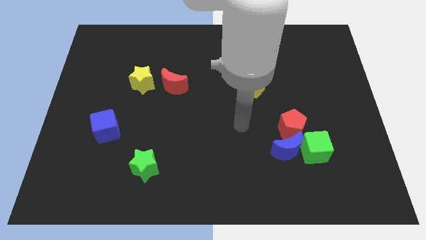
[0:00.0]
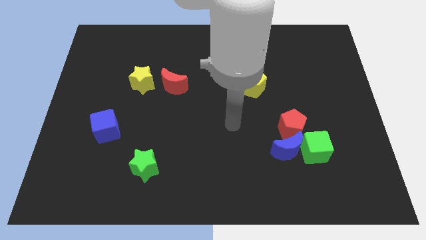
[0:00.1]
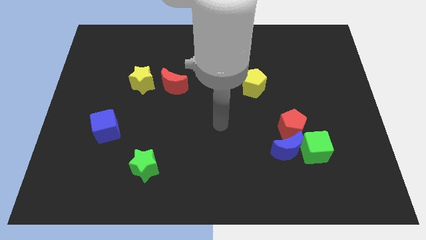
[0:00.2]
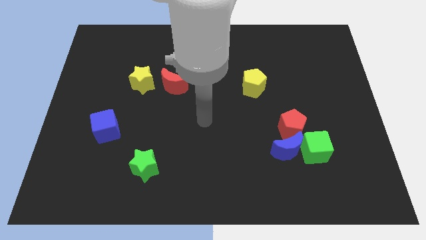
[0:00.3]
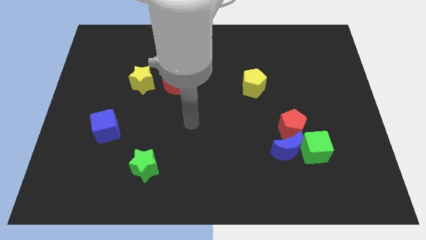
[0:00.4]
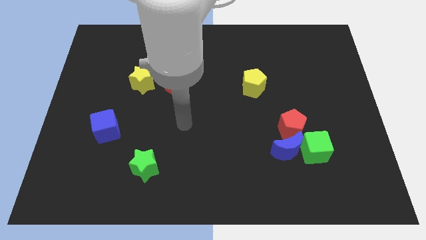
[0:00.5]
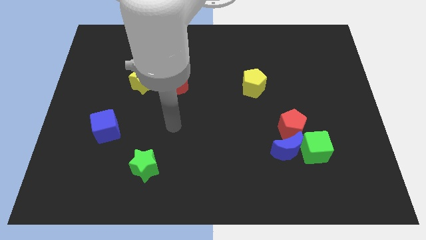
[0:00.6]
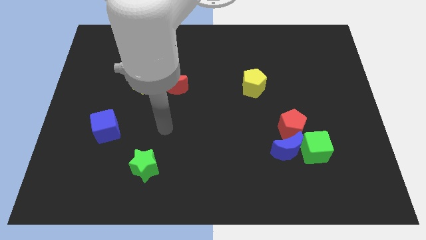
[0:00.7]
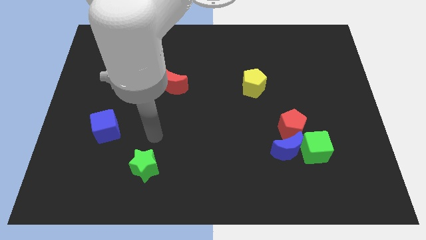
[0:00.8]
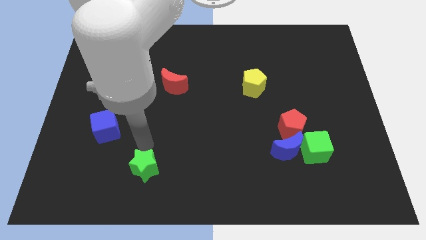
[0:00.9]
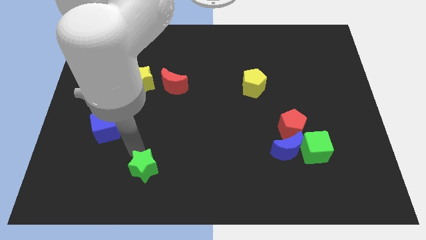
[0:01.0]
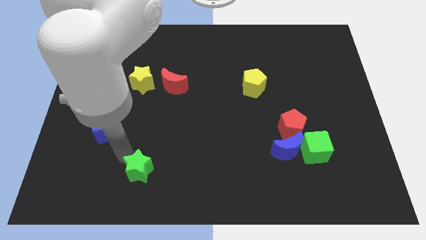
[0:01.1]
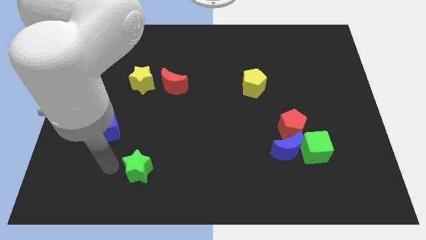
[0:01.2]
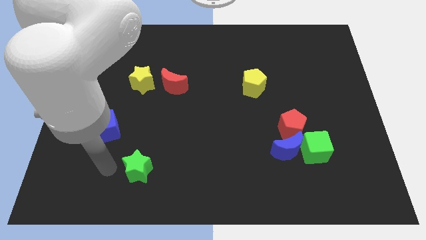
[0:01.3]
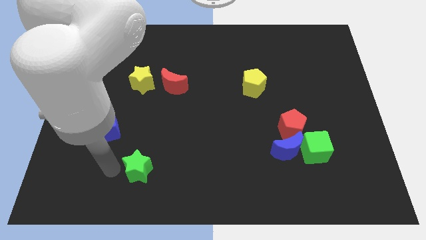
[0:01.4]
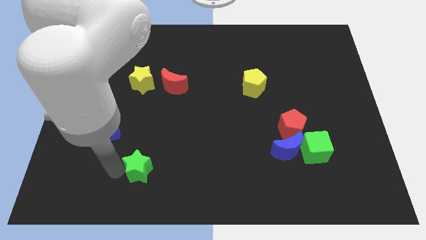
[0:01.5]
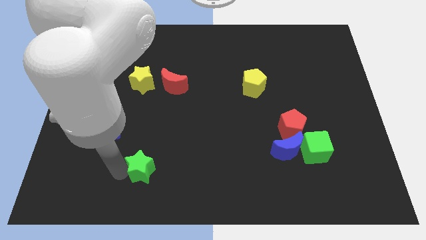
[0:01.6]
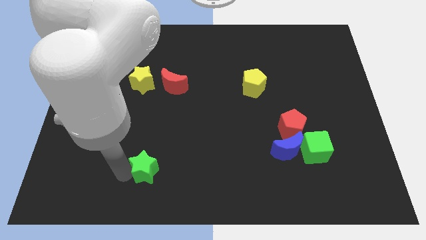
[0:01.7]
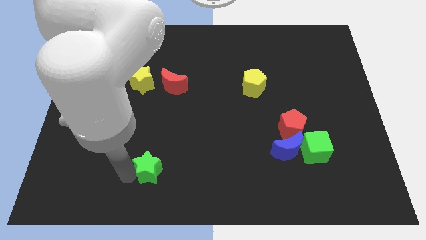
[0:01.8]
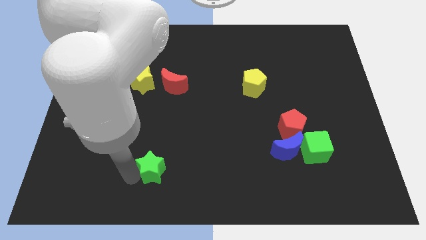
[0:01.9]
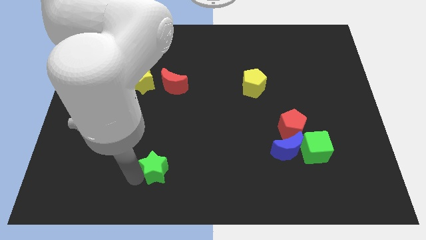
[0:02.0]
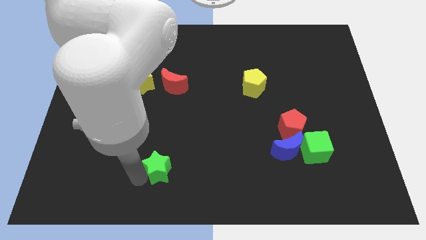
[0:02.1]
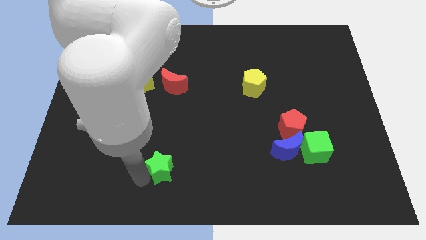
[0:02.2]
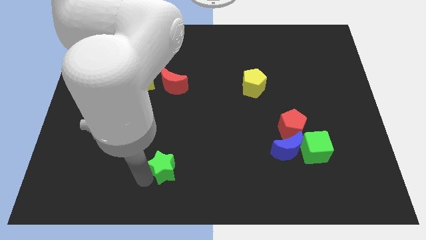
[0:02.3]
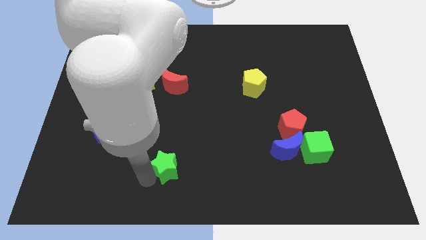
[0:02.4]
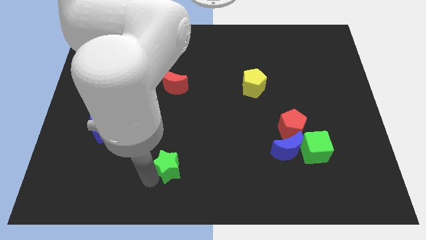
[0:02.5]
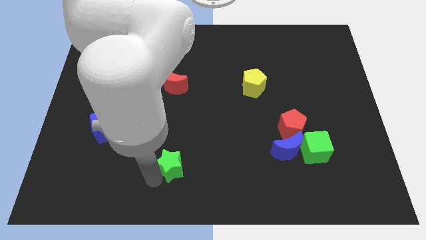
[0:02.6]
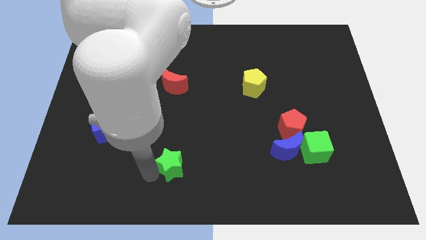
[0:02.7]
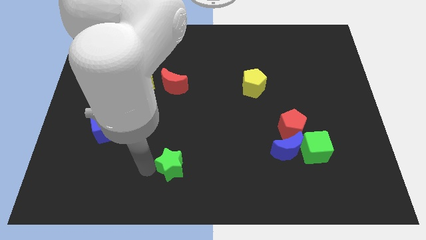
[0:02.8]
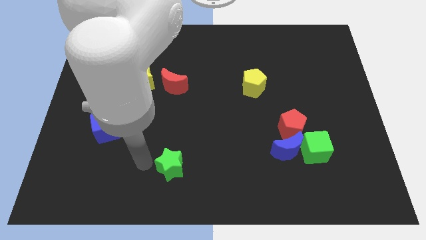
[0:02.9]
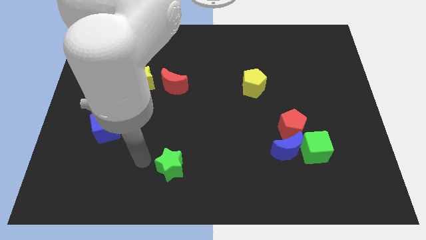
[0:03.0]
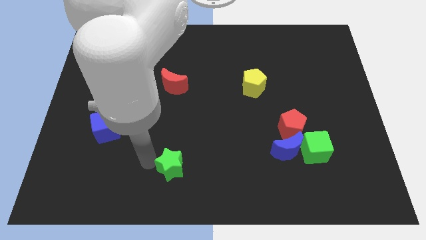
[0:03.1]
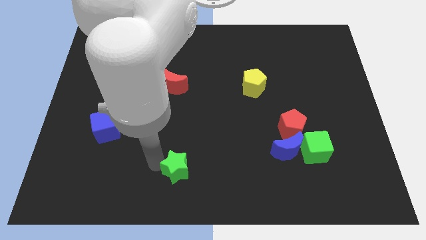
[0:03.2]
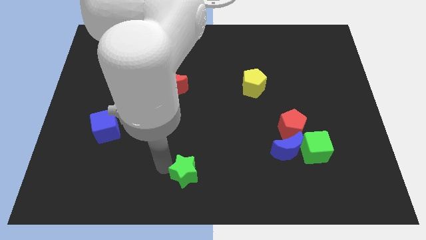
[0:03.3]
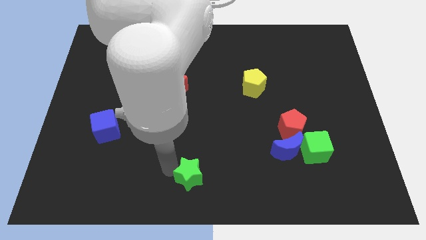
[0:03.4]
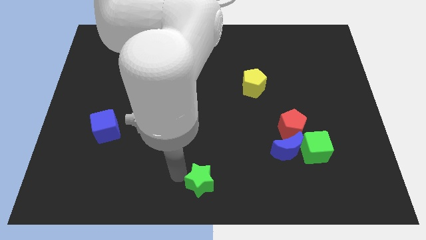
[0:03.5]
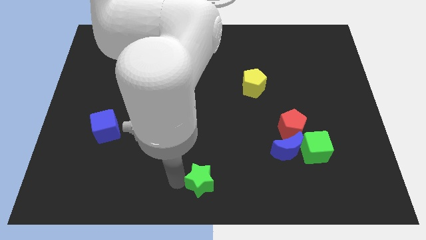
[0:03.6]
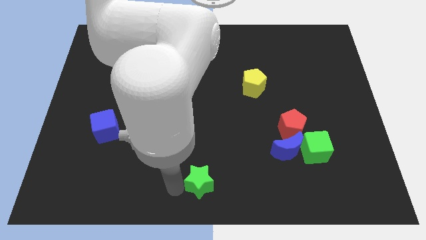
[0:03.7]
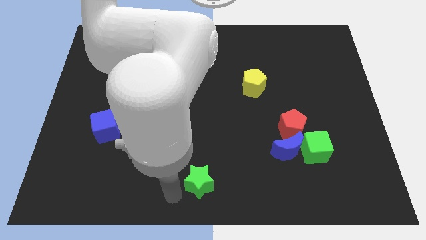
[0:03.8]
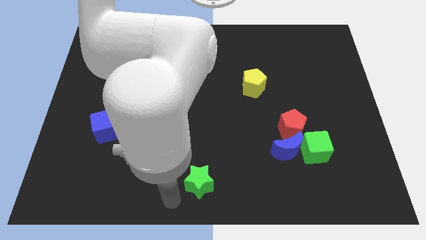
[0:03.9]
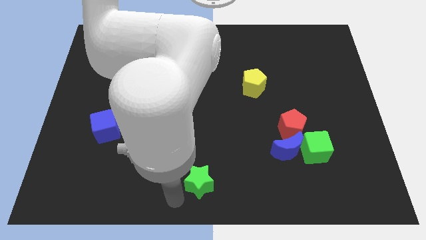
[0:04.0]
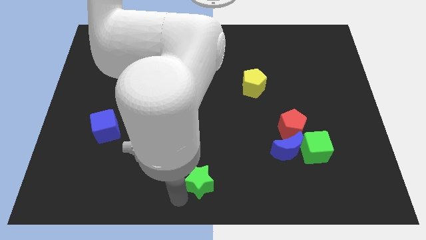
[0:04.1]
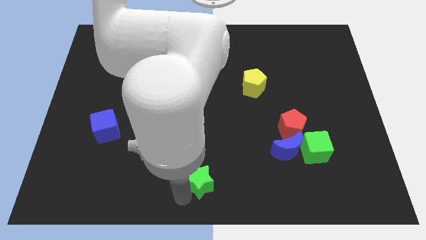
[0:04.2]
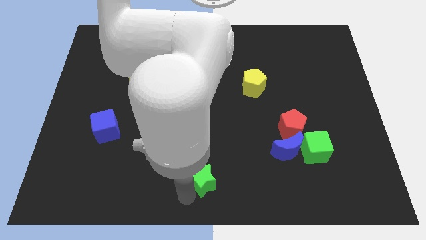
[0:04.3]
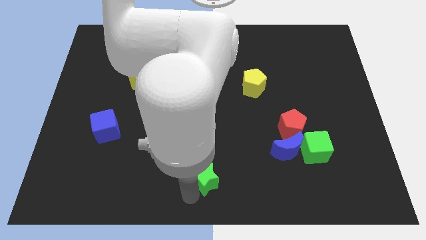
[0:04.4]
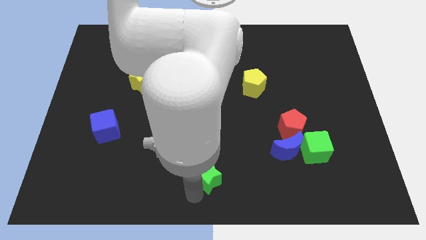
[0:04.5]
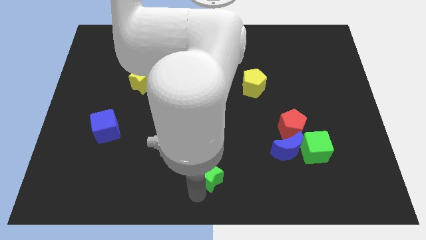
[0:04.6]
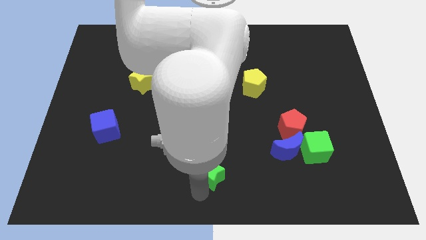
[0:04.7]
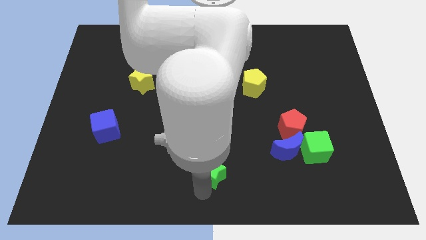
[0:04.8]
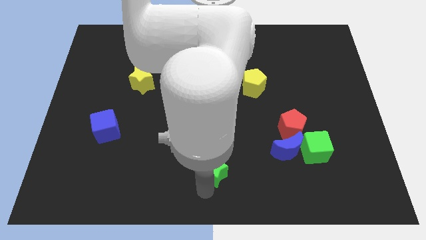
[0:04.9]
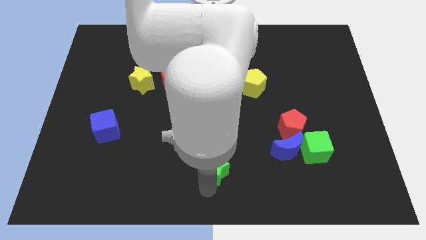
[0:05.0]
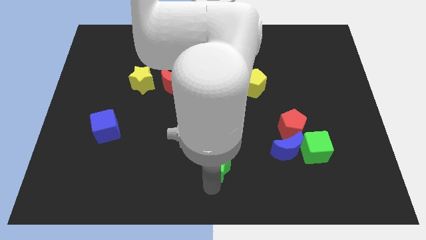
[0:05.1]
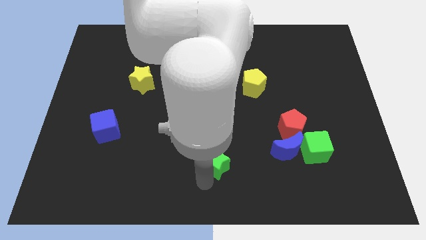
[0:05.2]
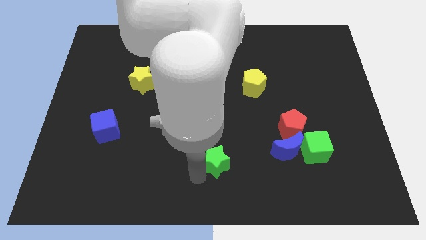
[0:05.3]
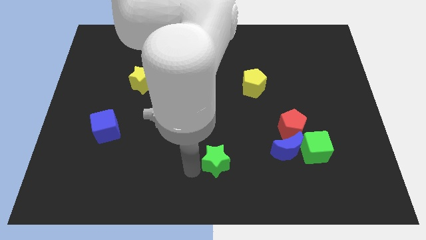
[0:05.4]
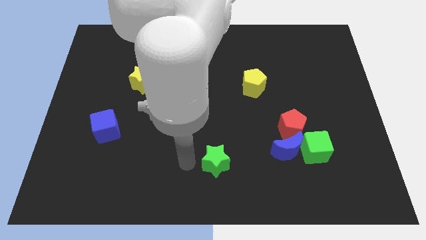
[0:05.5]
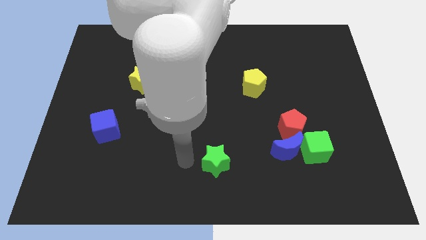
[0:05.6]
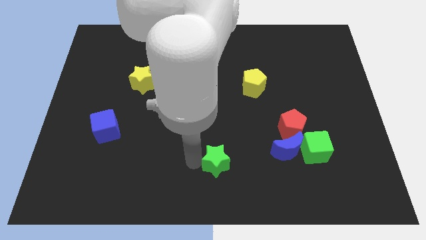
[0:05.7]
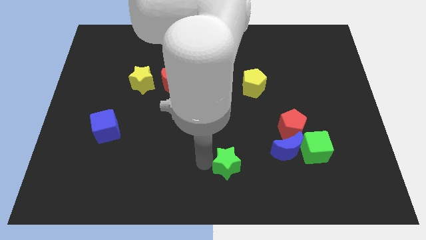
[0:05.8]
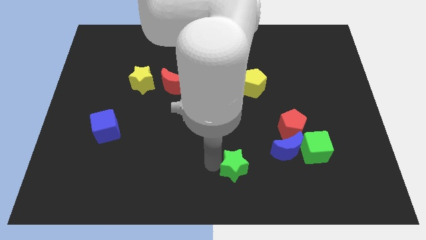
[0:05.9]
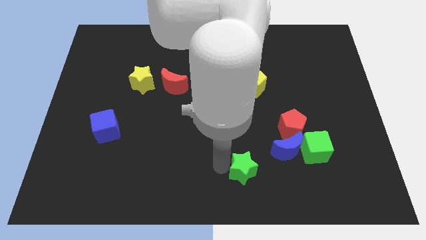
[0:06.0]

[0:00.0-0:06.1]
push the green star right

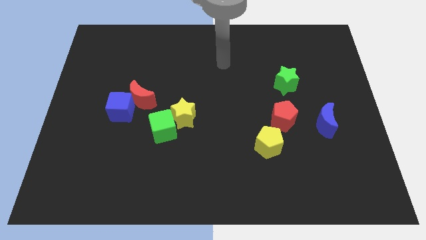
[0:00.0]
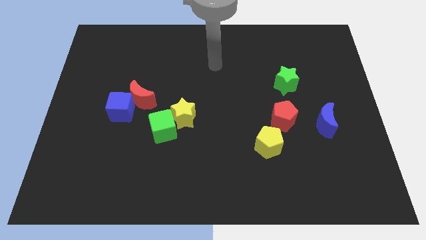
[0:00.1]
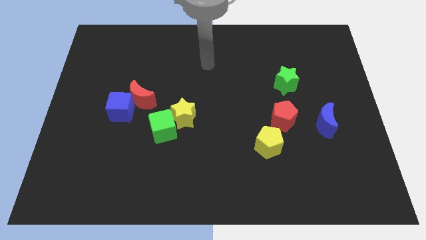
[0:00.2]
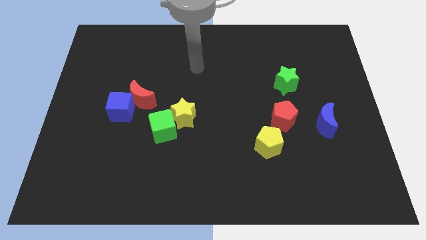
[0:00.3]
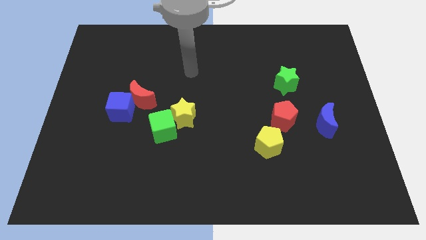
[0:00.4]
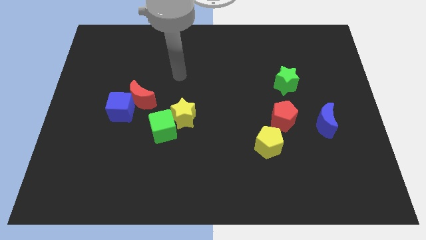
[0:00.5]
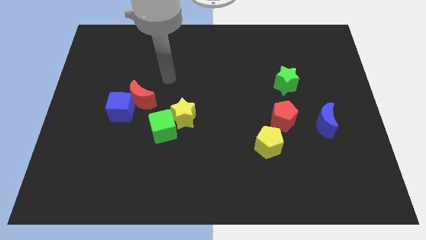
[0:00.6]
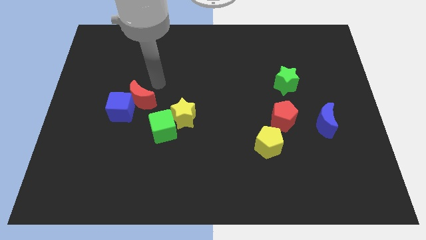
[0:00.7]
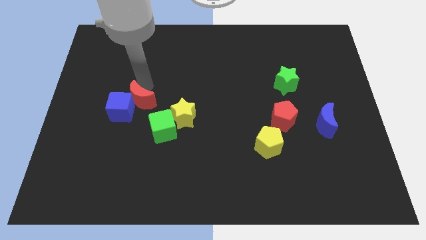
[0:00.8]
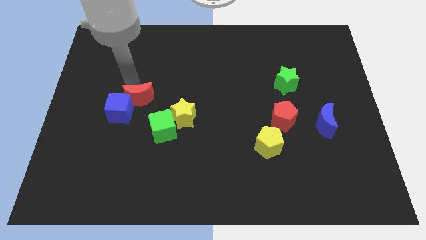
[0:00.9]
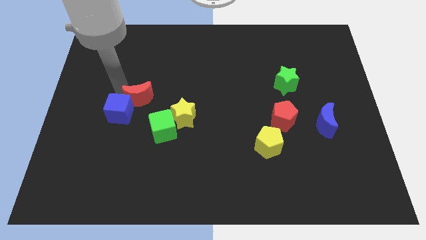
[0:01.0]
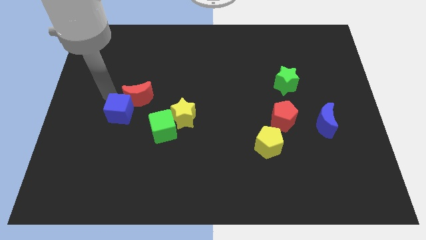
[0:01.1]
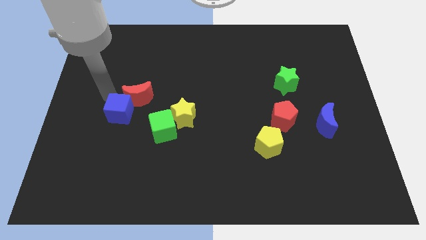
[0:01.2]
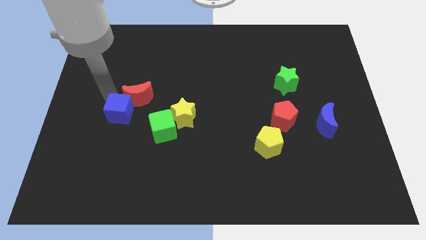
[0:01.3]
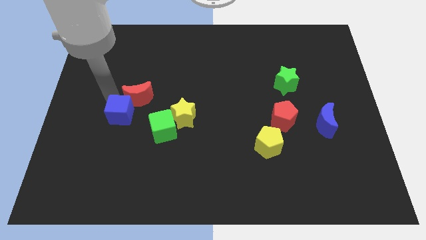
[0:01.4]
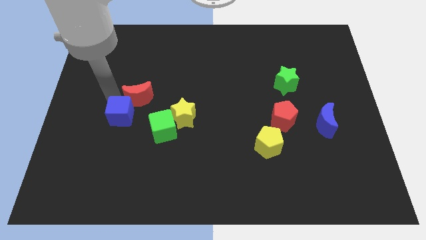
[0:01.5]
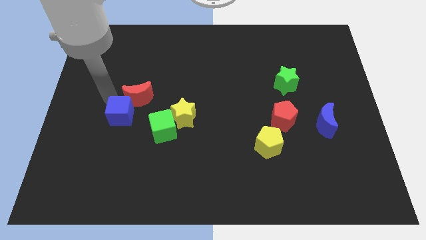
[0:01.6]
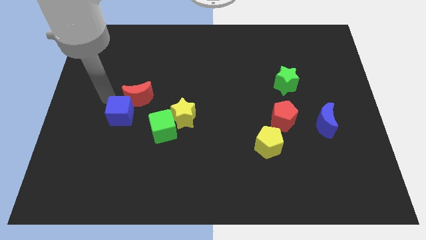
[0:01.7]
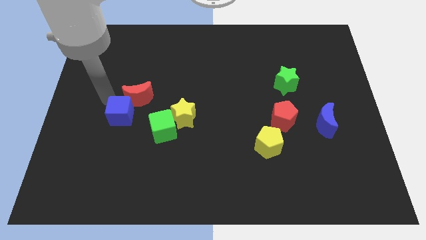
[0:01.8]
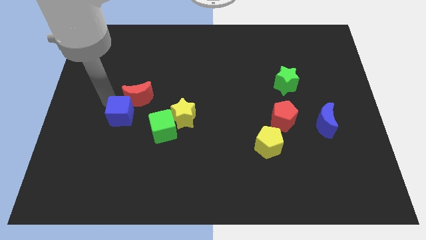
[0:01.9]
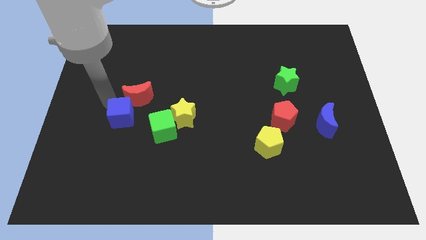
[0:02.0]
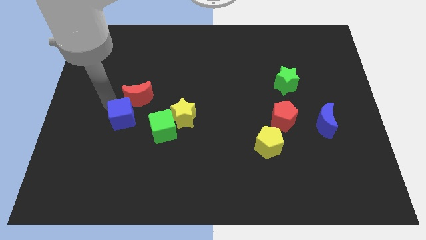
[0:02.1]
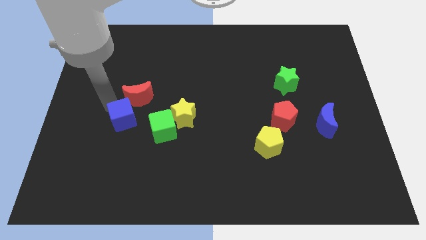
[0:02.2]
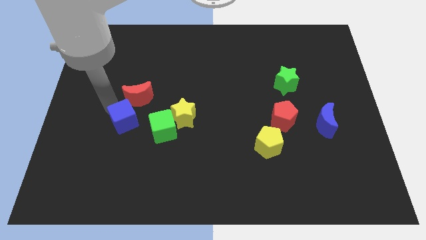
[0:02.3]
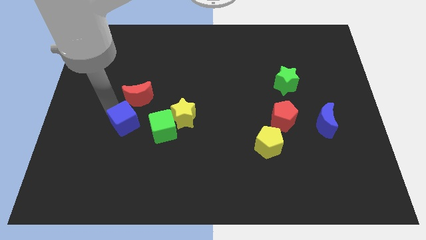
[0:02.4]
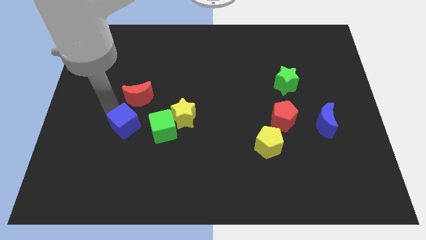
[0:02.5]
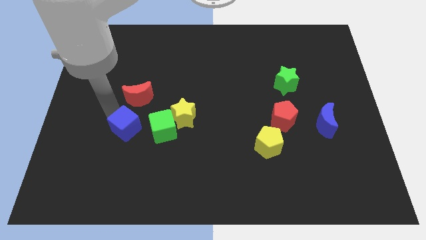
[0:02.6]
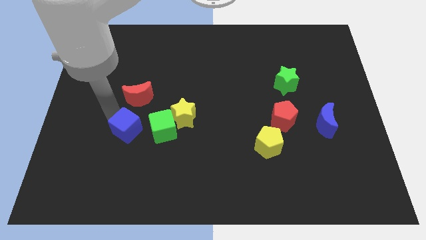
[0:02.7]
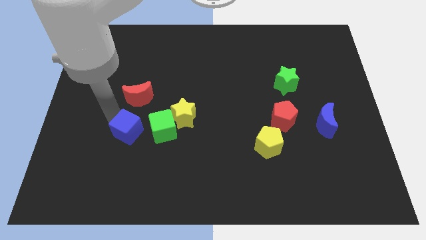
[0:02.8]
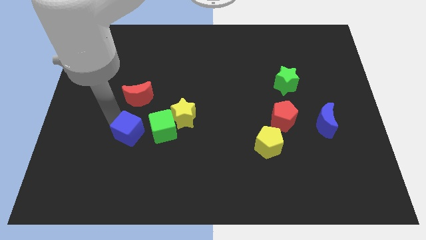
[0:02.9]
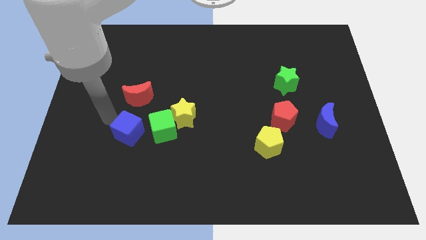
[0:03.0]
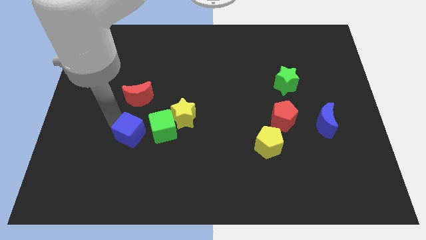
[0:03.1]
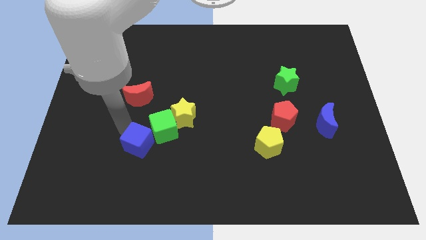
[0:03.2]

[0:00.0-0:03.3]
slightly move the blue cube downwards and then right
